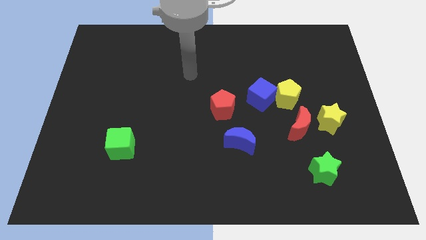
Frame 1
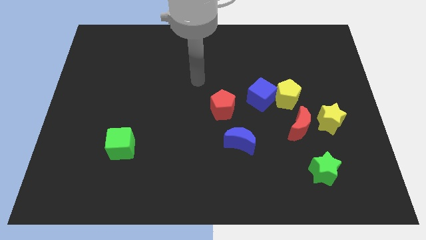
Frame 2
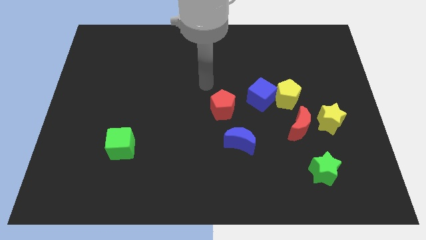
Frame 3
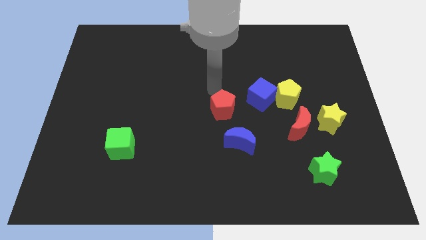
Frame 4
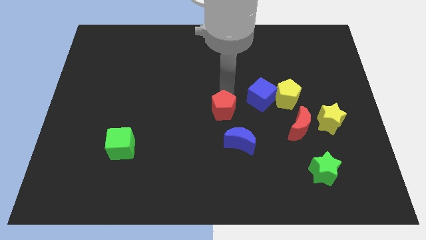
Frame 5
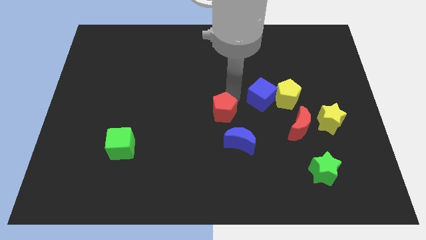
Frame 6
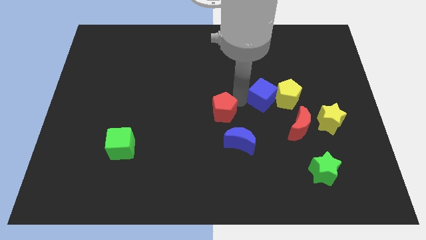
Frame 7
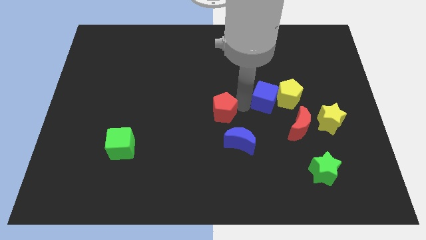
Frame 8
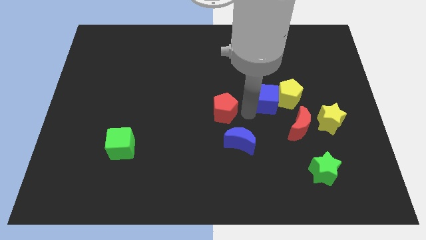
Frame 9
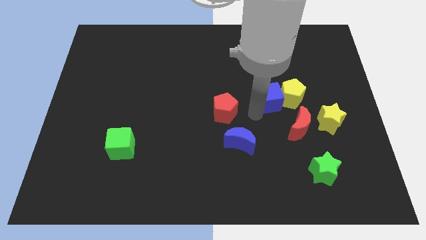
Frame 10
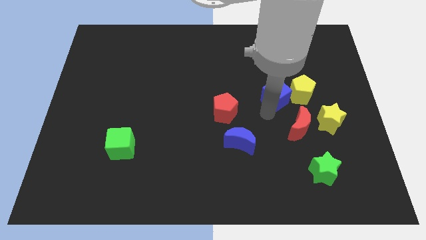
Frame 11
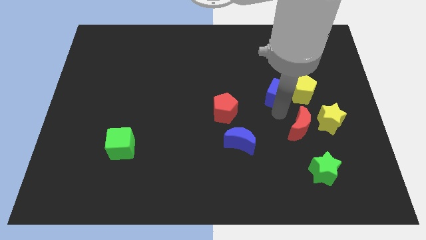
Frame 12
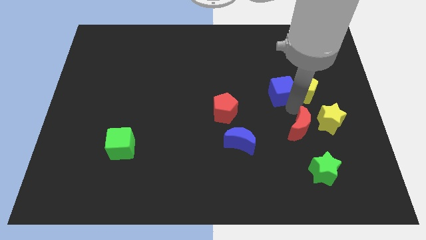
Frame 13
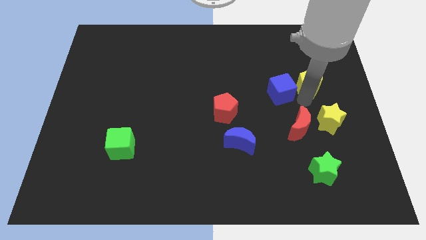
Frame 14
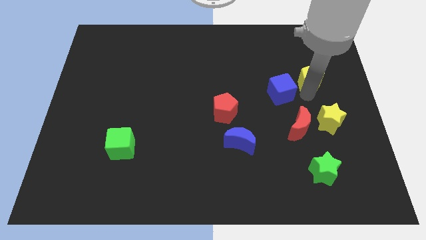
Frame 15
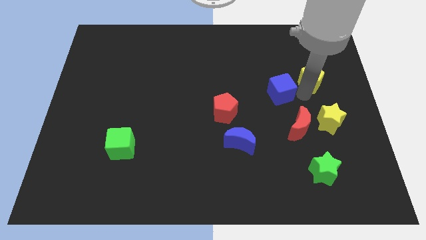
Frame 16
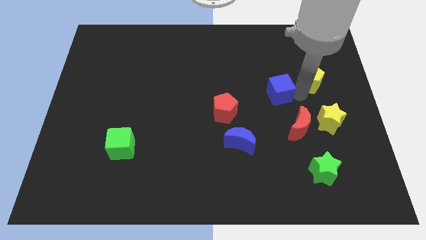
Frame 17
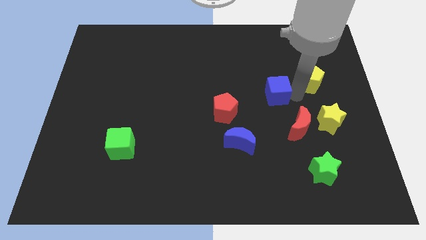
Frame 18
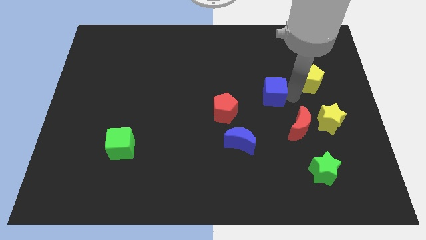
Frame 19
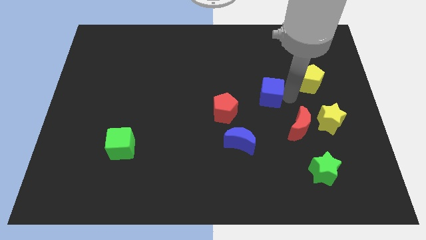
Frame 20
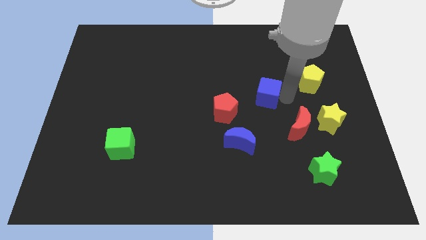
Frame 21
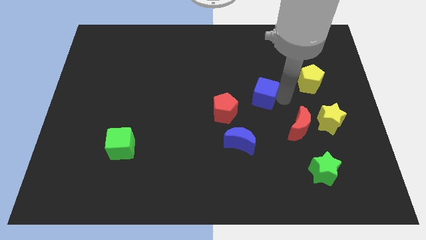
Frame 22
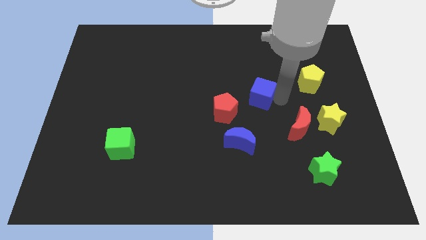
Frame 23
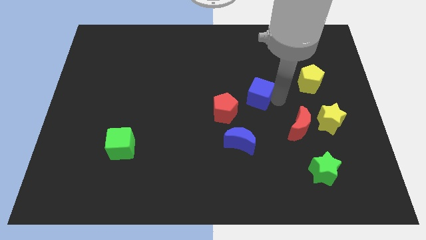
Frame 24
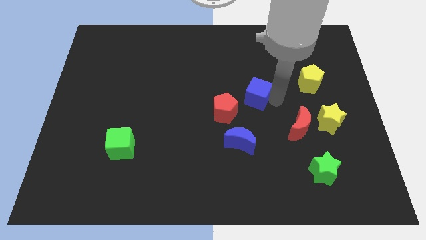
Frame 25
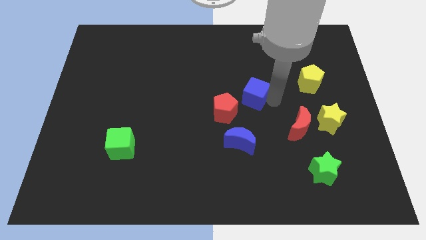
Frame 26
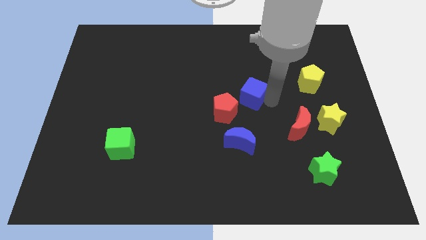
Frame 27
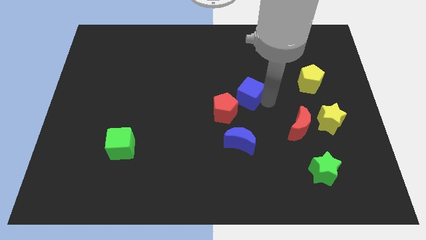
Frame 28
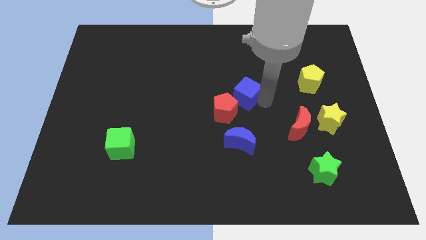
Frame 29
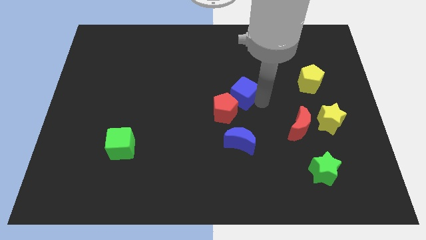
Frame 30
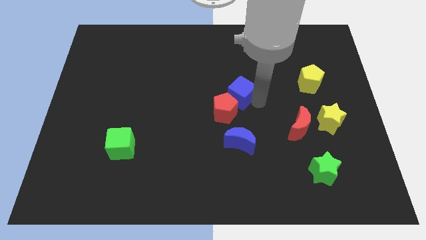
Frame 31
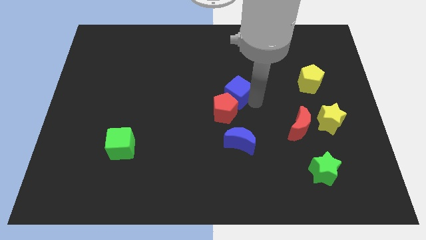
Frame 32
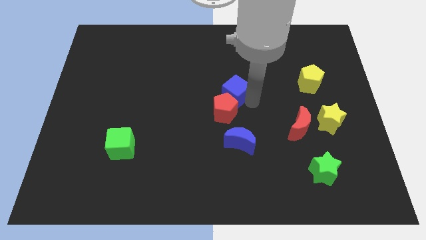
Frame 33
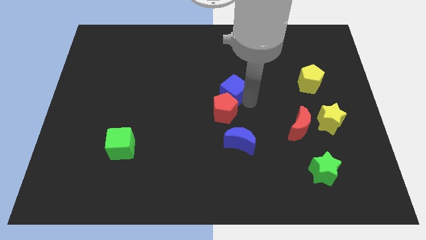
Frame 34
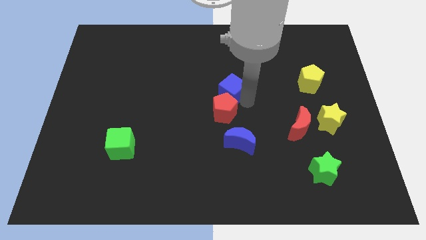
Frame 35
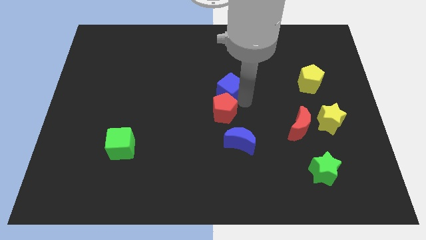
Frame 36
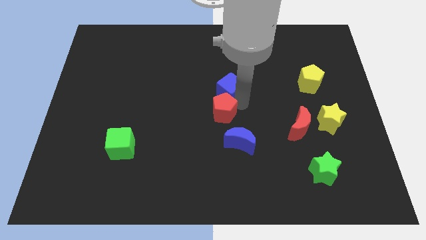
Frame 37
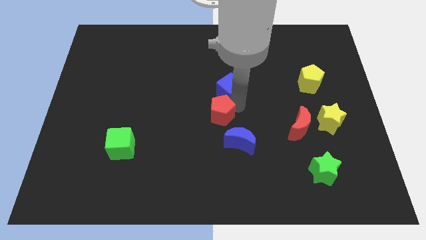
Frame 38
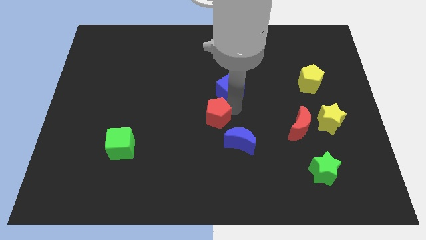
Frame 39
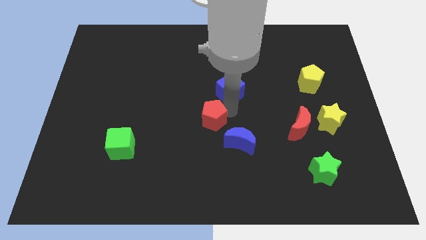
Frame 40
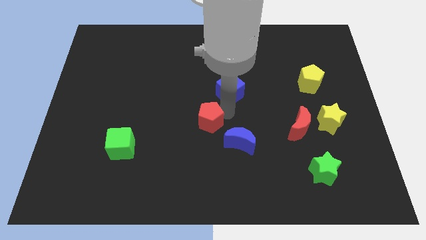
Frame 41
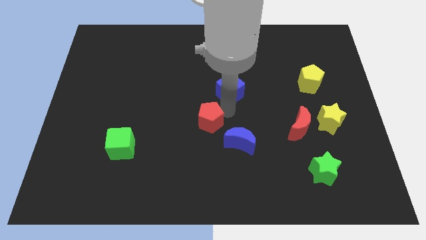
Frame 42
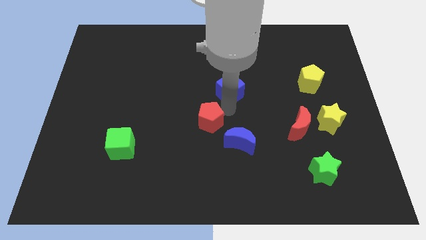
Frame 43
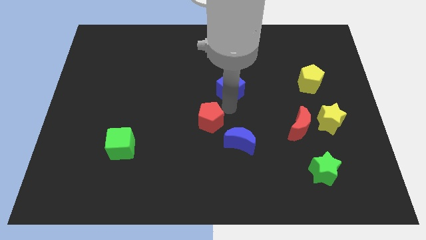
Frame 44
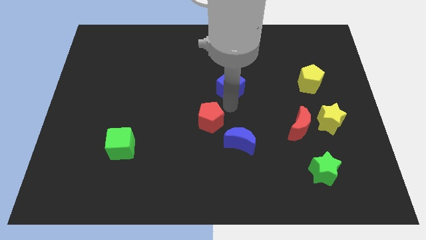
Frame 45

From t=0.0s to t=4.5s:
push the blue cube up and then to the left a bit

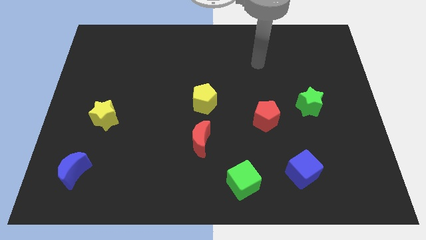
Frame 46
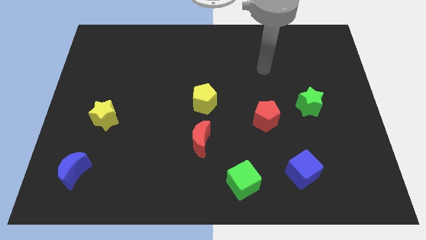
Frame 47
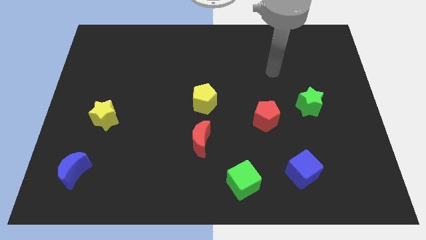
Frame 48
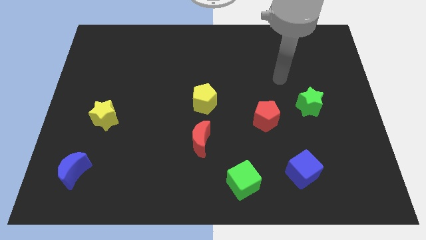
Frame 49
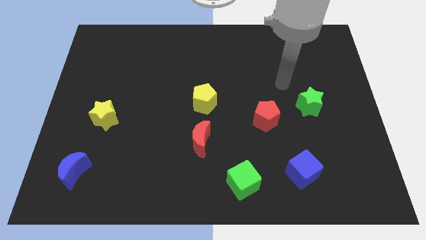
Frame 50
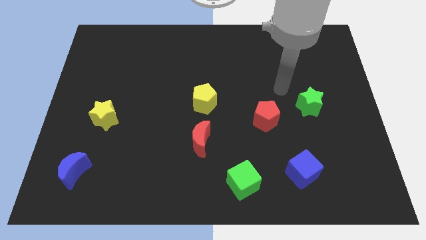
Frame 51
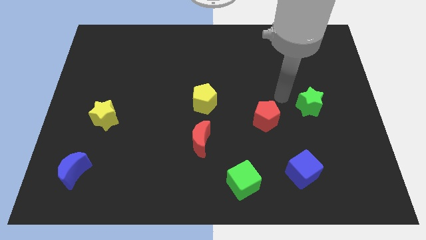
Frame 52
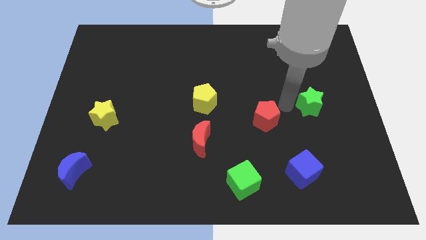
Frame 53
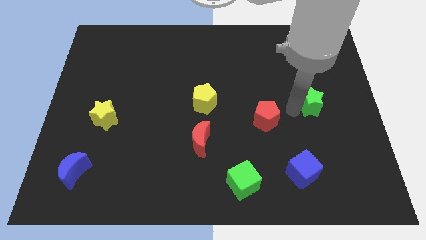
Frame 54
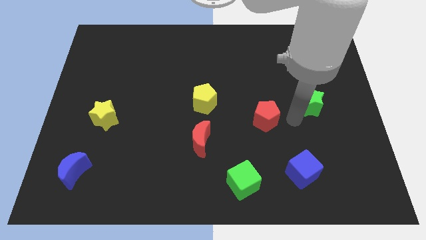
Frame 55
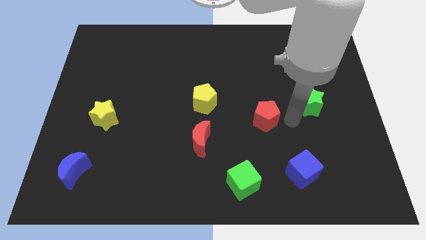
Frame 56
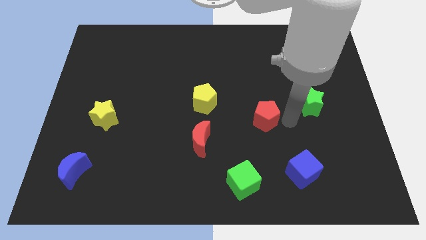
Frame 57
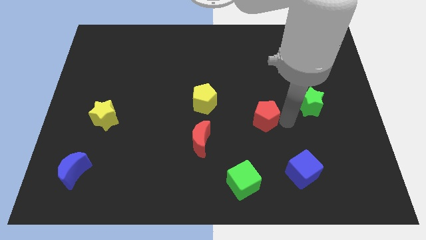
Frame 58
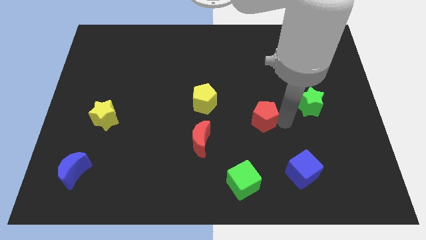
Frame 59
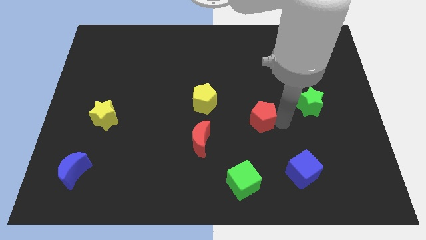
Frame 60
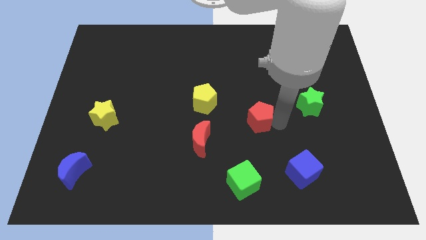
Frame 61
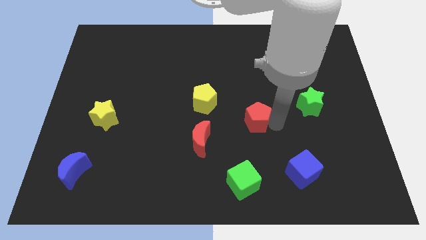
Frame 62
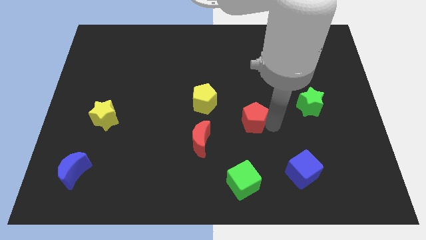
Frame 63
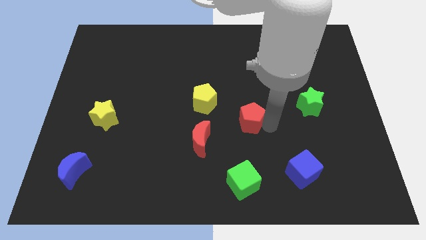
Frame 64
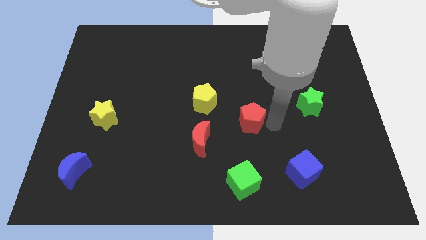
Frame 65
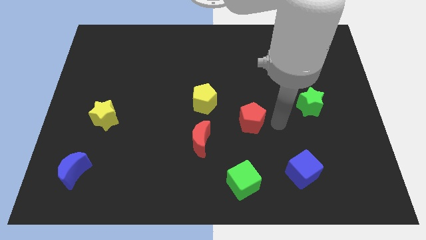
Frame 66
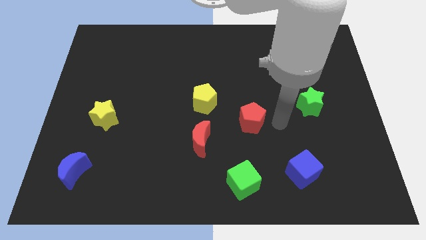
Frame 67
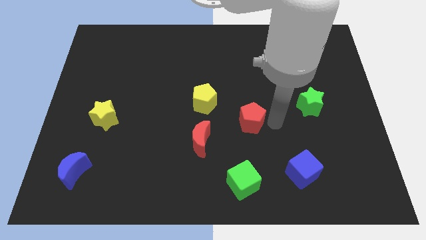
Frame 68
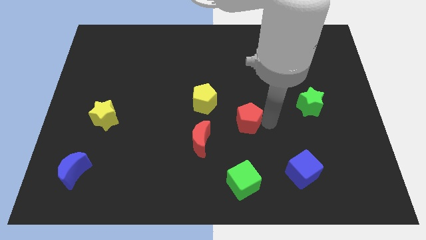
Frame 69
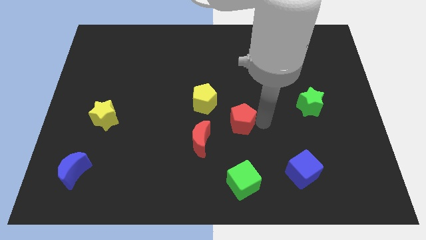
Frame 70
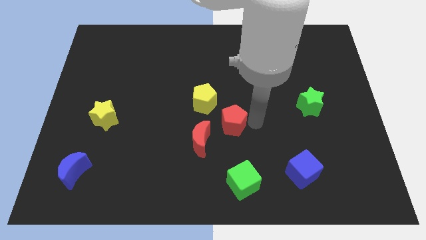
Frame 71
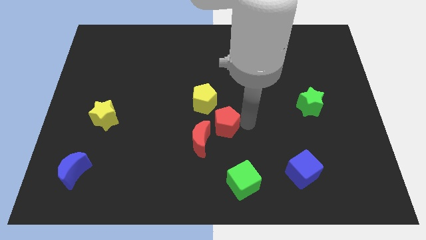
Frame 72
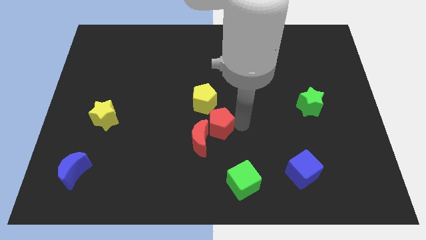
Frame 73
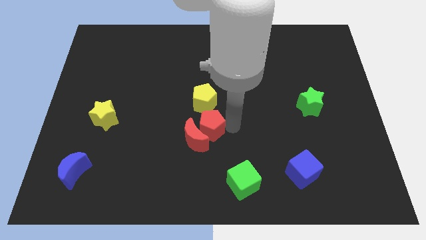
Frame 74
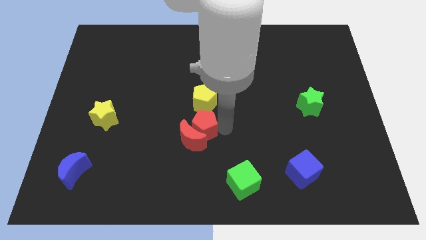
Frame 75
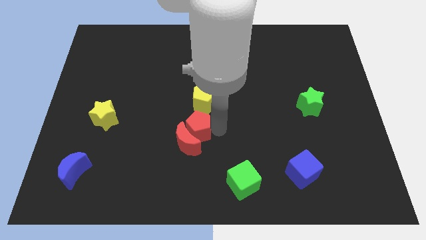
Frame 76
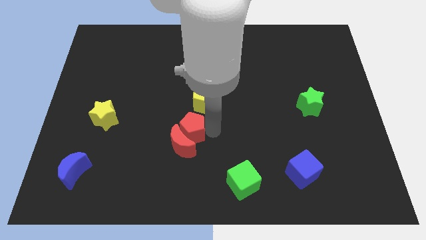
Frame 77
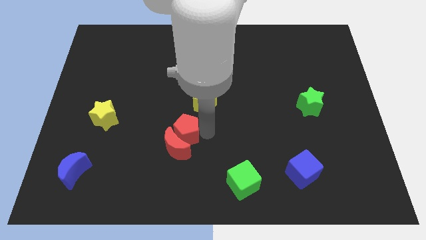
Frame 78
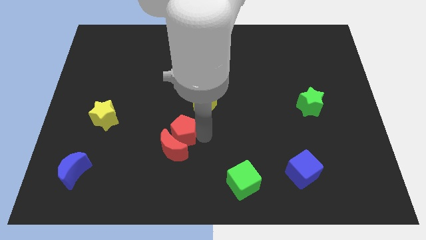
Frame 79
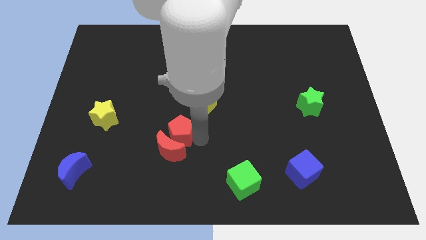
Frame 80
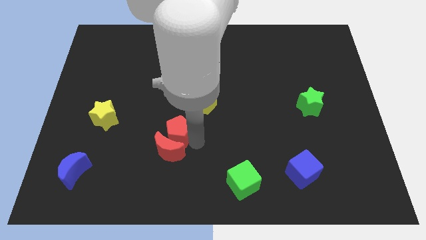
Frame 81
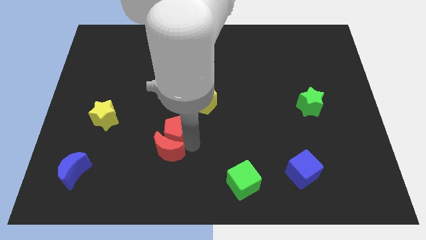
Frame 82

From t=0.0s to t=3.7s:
move the red pentagon left
